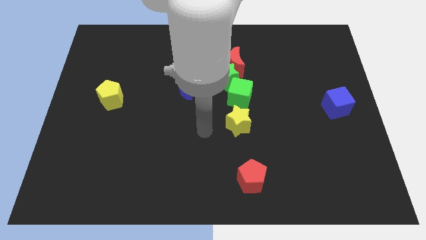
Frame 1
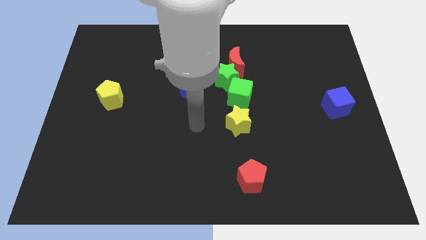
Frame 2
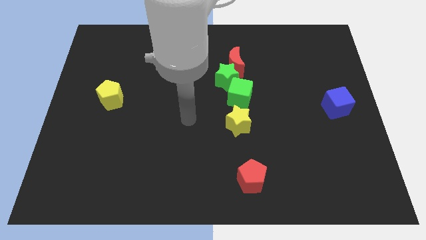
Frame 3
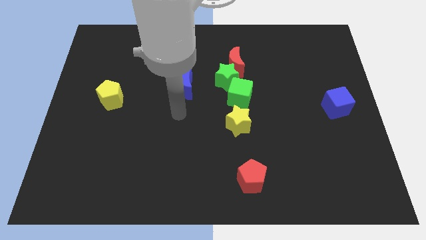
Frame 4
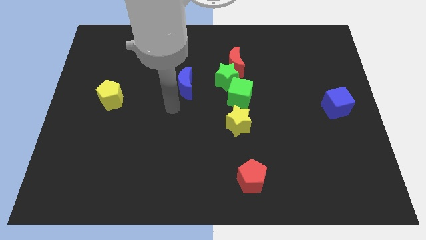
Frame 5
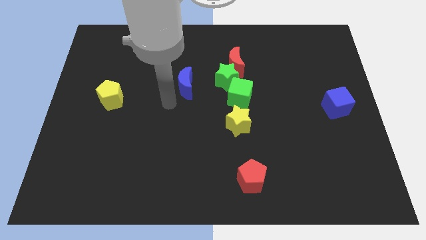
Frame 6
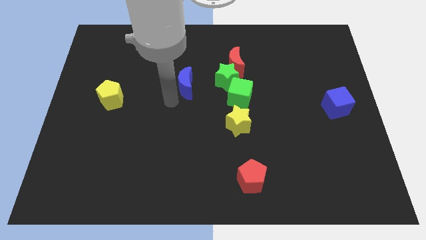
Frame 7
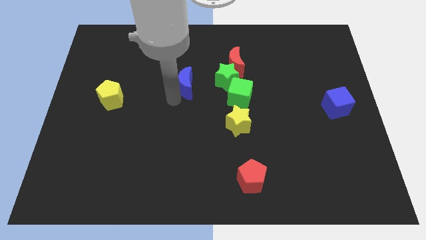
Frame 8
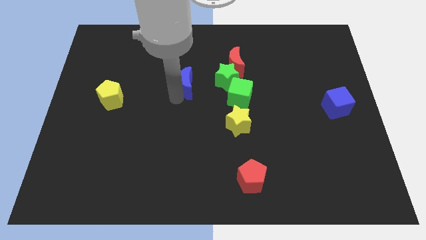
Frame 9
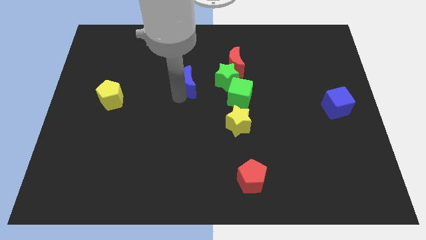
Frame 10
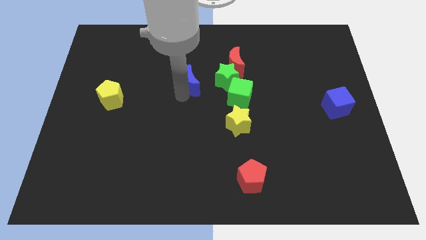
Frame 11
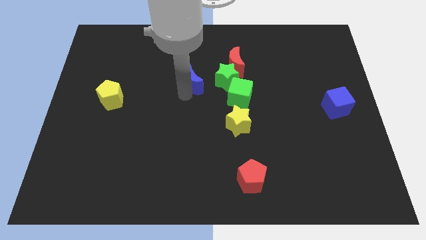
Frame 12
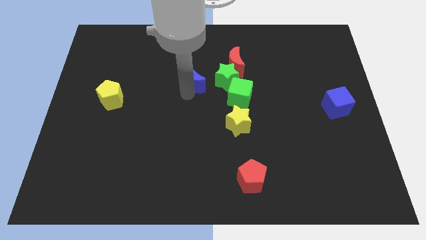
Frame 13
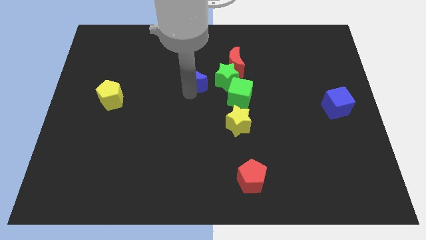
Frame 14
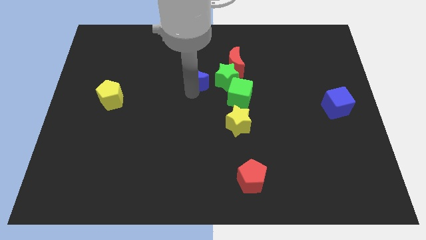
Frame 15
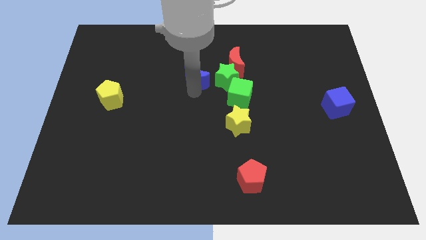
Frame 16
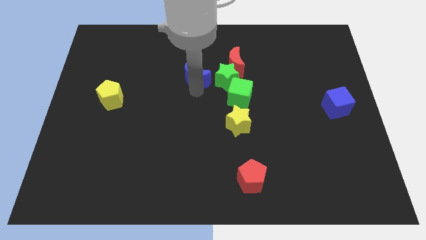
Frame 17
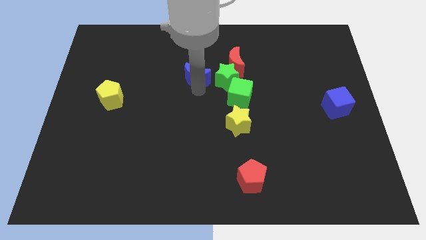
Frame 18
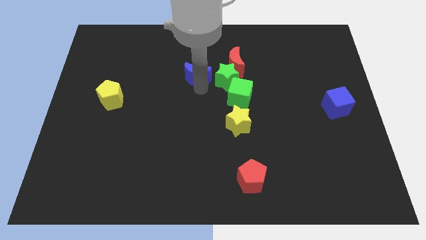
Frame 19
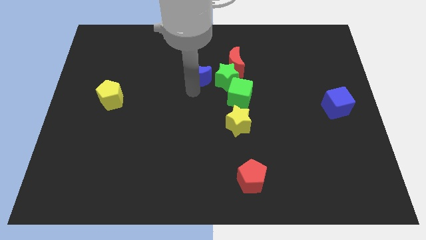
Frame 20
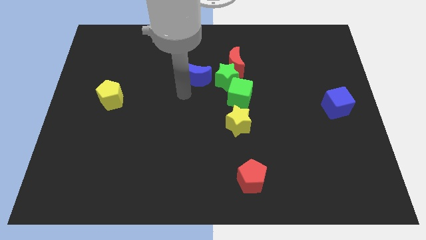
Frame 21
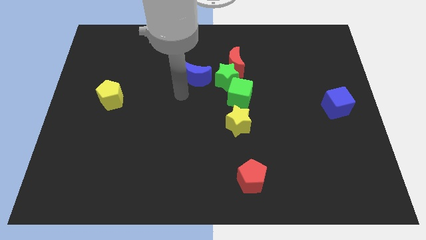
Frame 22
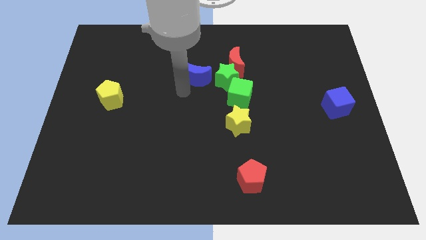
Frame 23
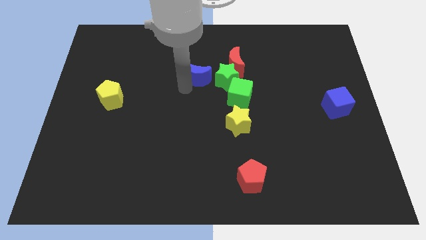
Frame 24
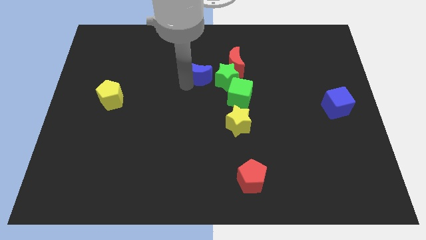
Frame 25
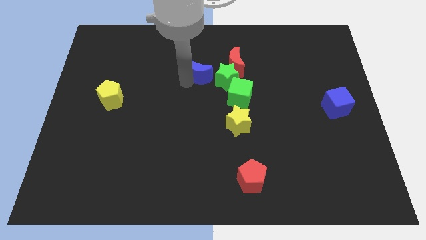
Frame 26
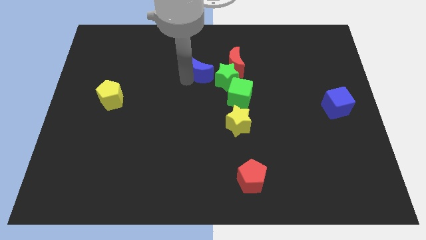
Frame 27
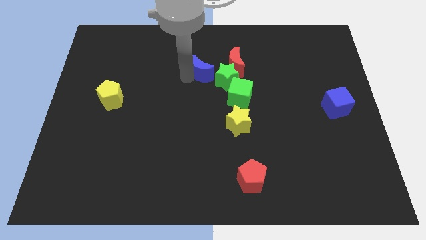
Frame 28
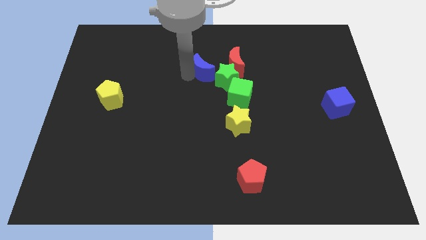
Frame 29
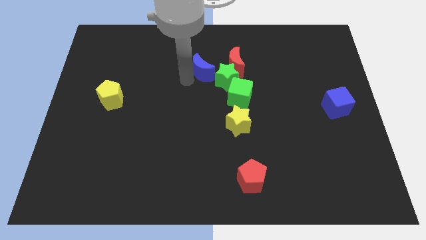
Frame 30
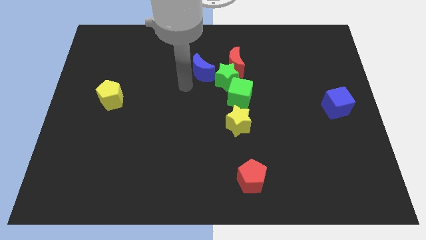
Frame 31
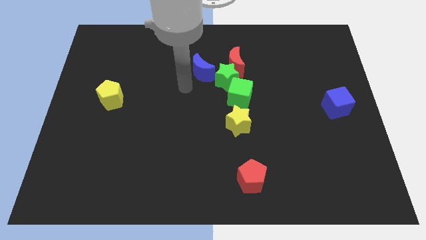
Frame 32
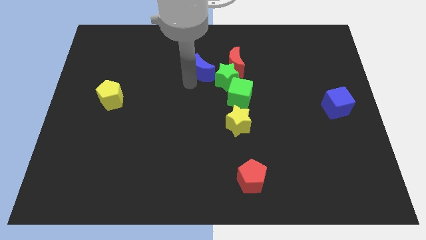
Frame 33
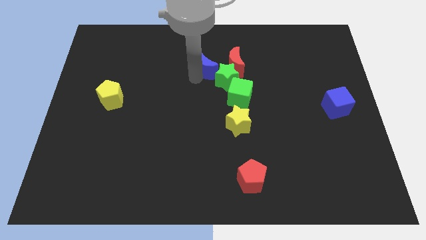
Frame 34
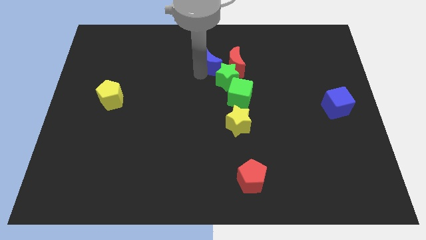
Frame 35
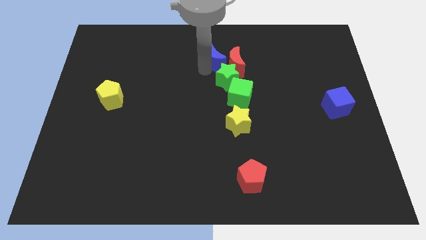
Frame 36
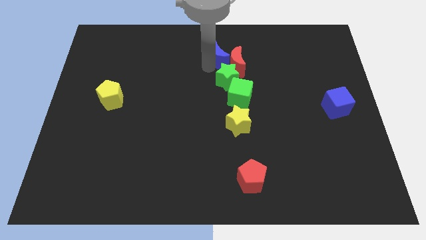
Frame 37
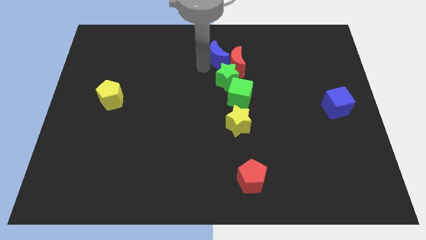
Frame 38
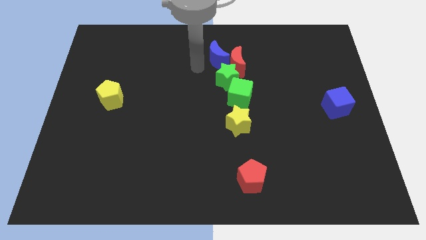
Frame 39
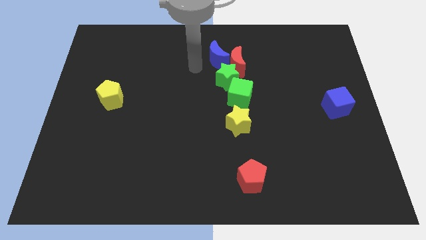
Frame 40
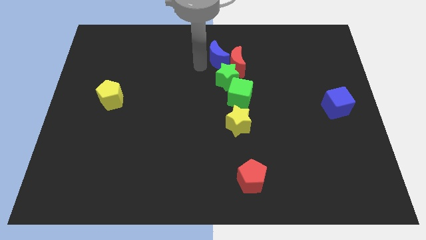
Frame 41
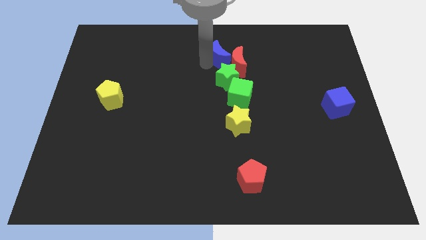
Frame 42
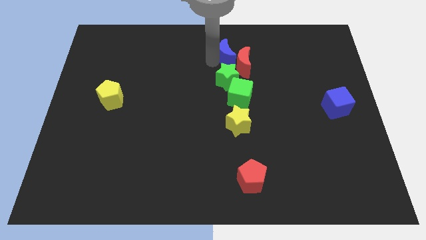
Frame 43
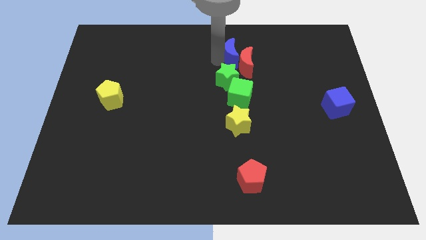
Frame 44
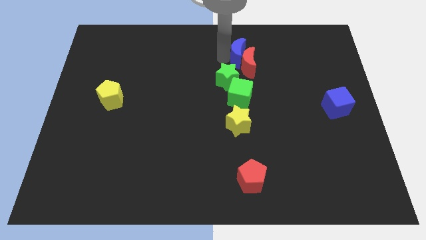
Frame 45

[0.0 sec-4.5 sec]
push the blue moon to the right slightly

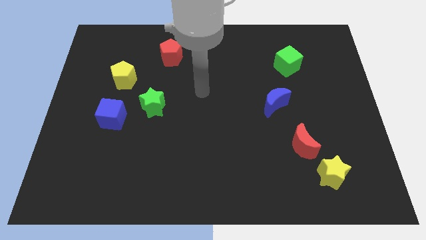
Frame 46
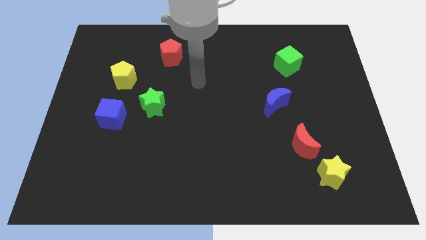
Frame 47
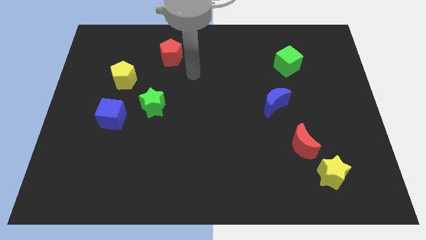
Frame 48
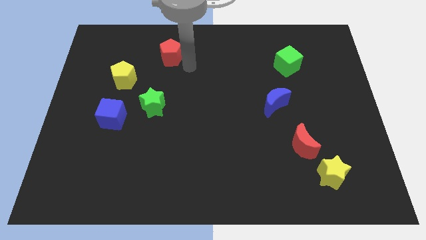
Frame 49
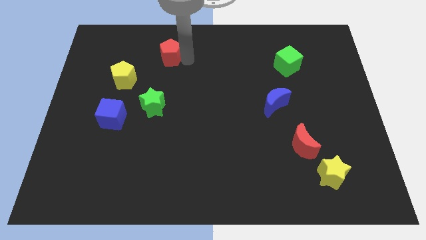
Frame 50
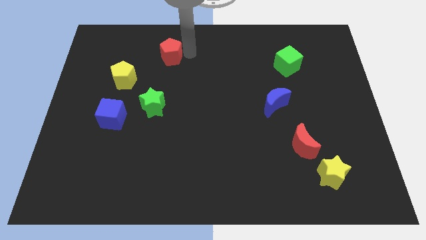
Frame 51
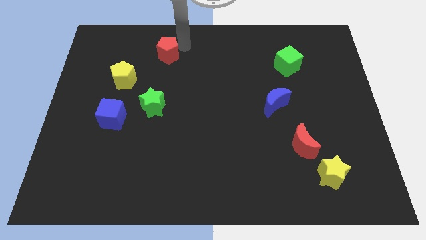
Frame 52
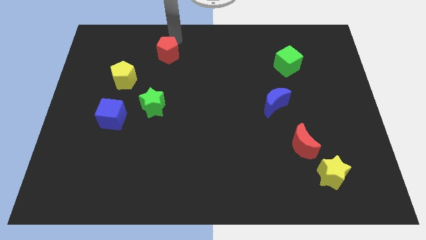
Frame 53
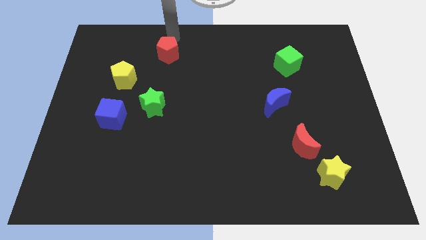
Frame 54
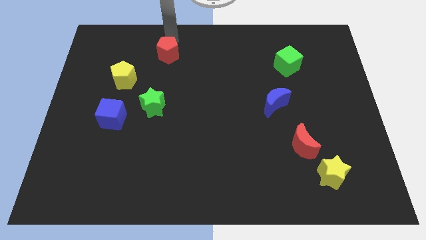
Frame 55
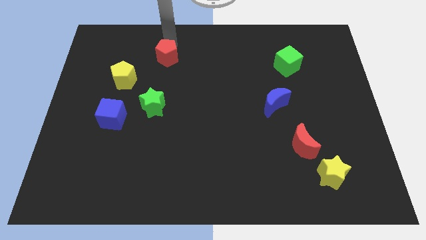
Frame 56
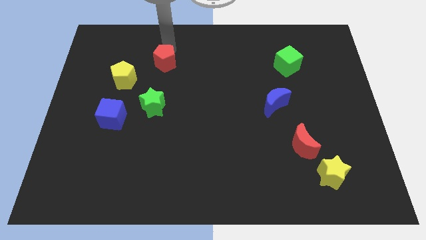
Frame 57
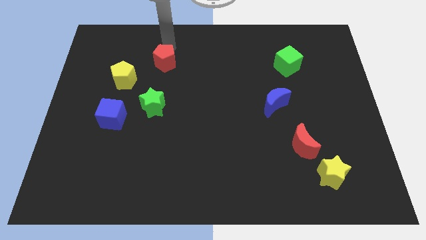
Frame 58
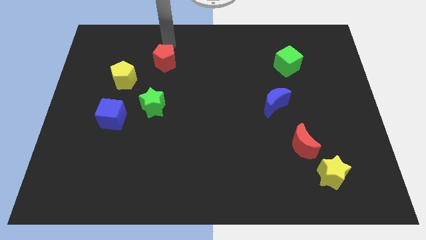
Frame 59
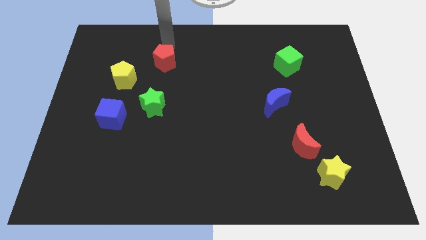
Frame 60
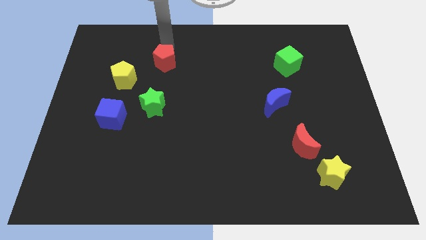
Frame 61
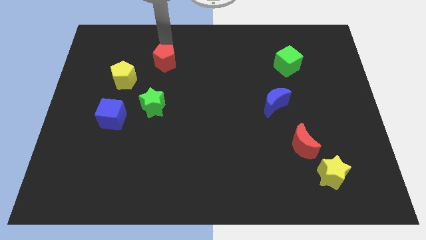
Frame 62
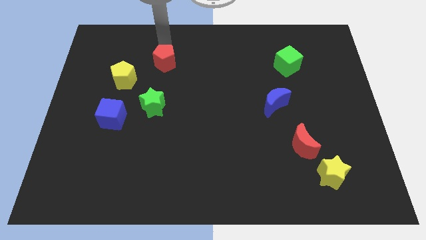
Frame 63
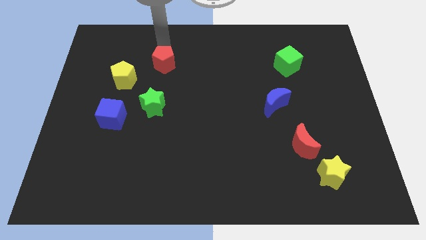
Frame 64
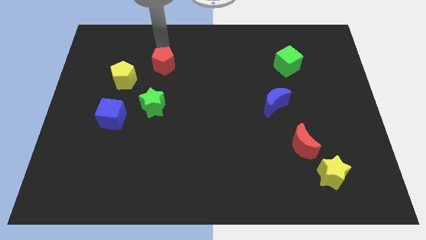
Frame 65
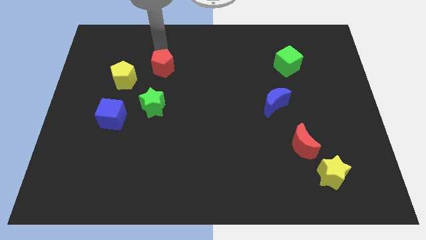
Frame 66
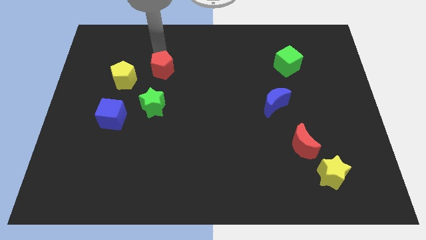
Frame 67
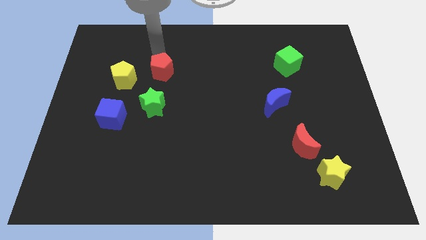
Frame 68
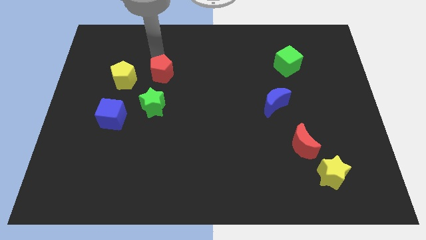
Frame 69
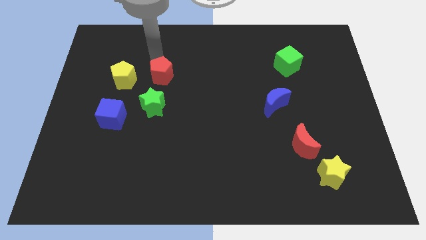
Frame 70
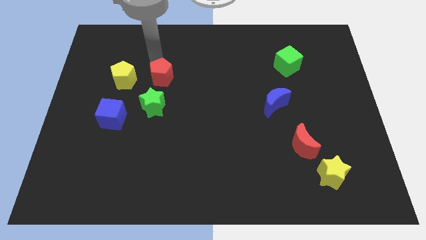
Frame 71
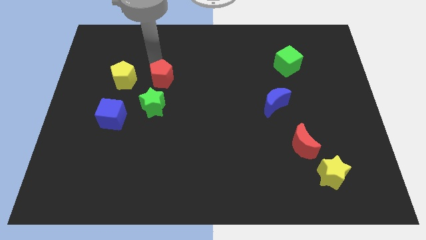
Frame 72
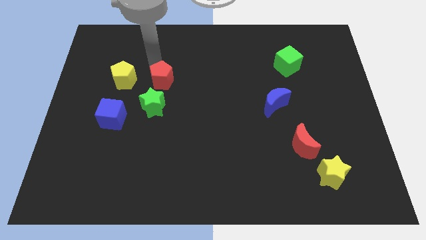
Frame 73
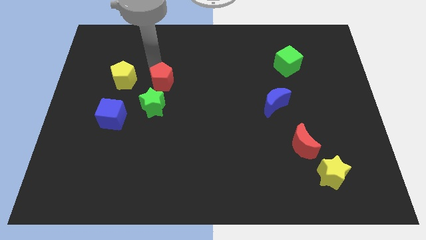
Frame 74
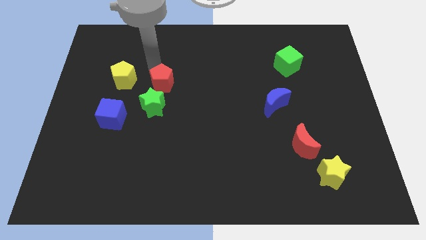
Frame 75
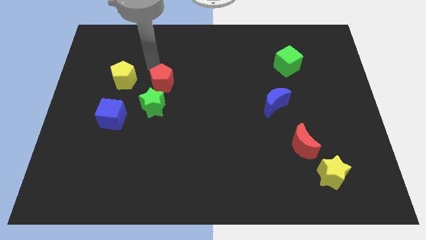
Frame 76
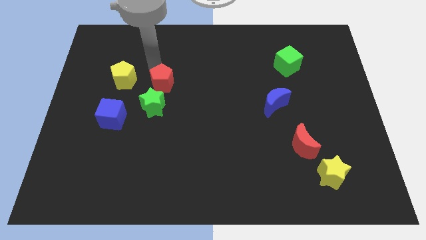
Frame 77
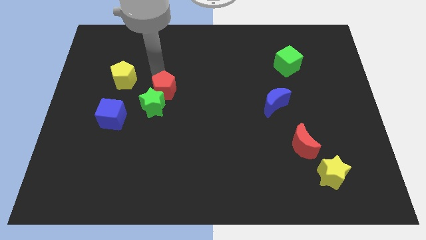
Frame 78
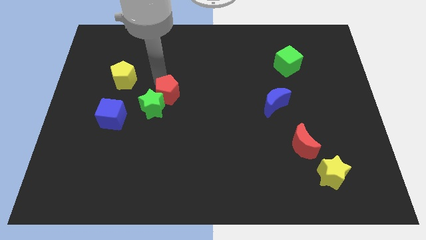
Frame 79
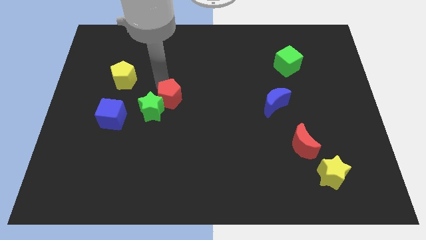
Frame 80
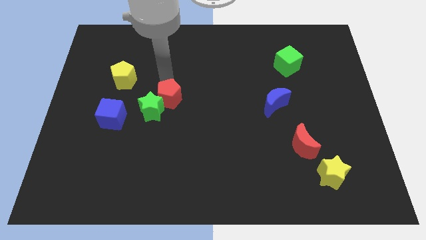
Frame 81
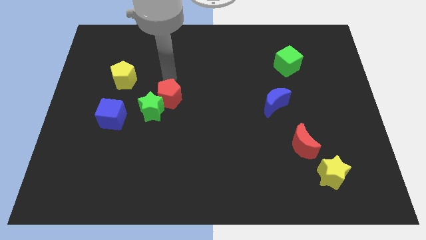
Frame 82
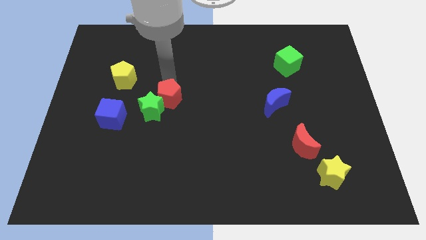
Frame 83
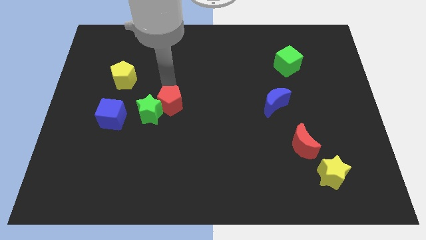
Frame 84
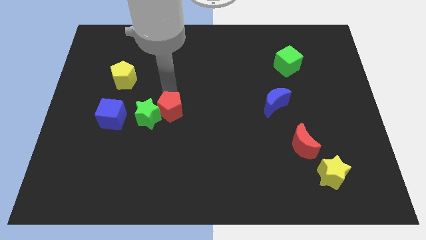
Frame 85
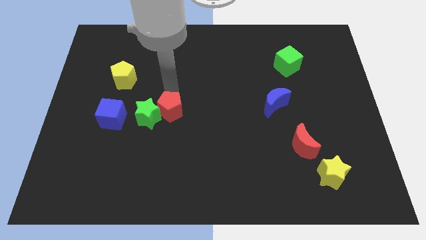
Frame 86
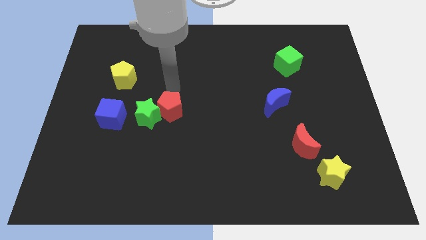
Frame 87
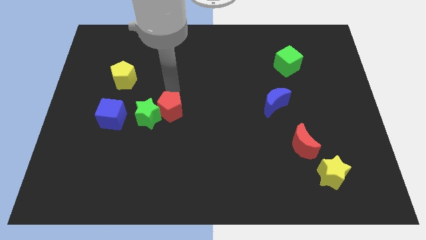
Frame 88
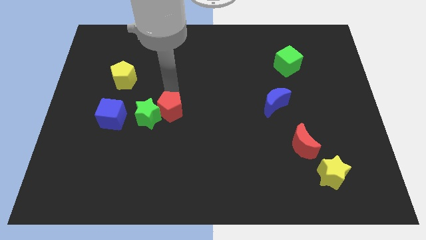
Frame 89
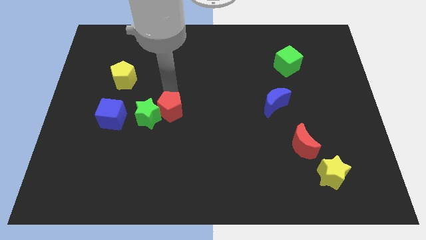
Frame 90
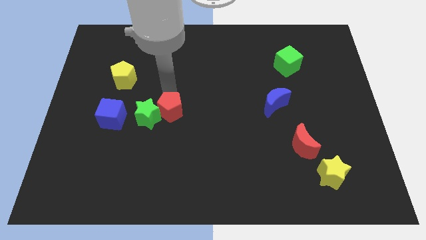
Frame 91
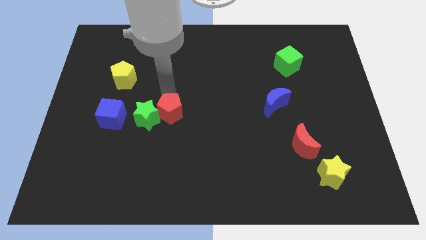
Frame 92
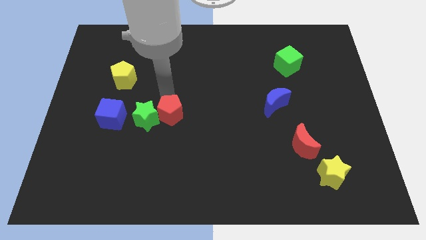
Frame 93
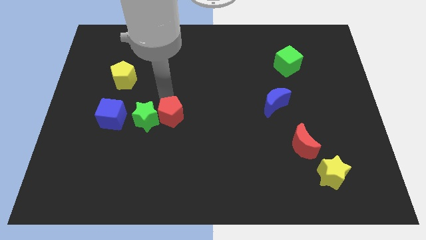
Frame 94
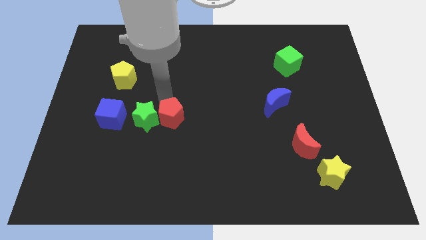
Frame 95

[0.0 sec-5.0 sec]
slide the red pentagon down
